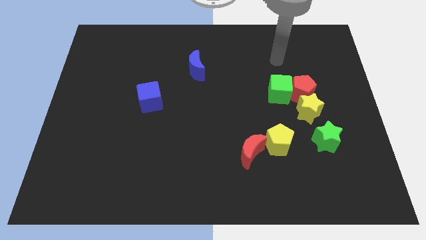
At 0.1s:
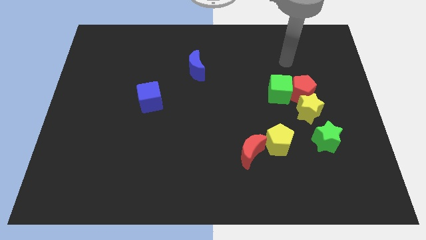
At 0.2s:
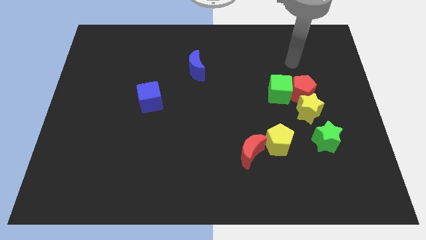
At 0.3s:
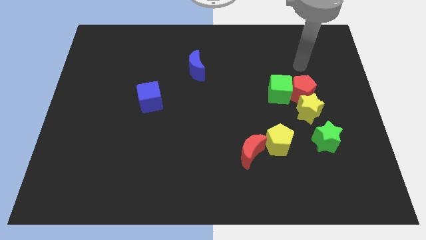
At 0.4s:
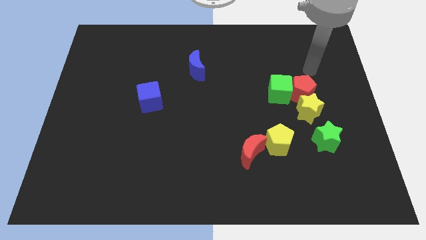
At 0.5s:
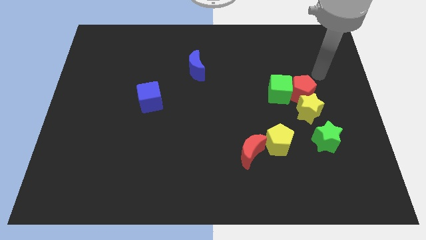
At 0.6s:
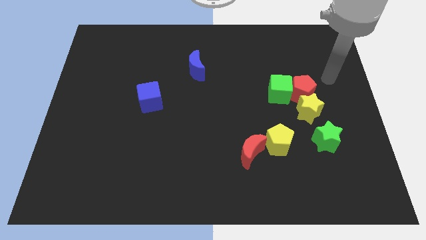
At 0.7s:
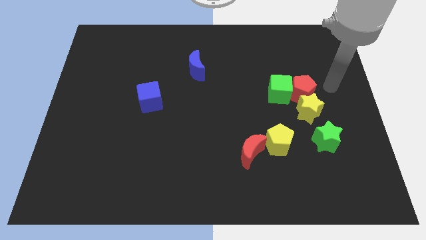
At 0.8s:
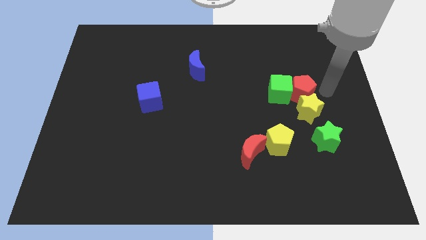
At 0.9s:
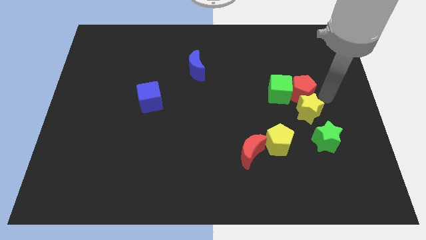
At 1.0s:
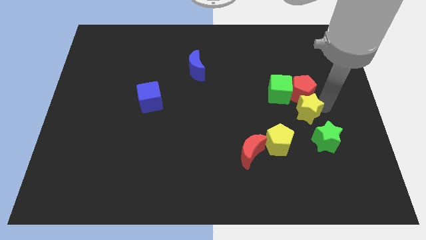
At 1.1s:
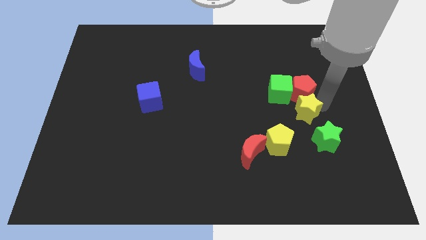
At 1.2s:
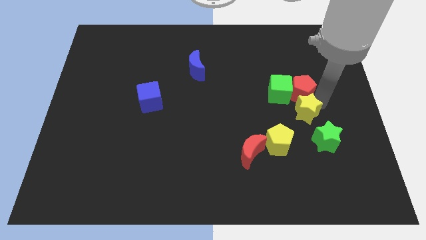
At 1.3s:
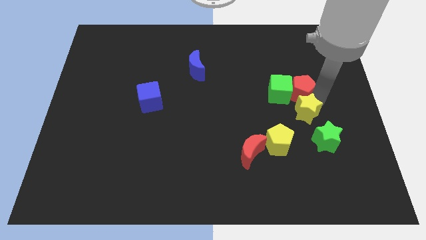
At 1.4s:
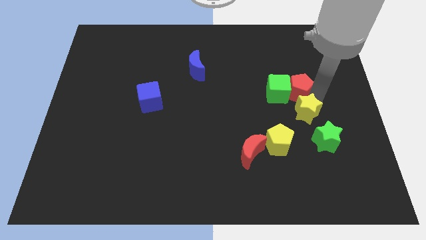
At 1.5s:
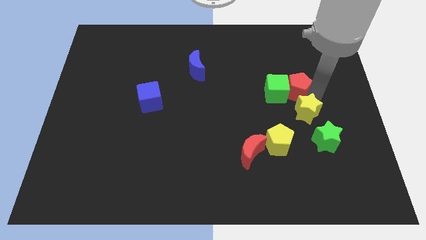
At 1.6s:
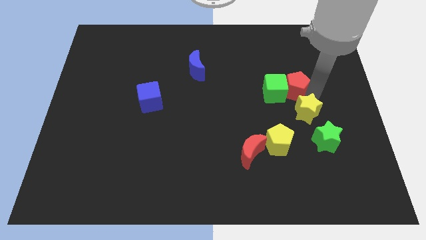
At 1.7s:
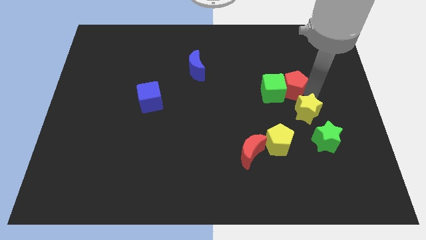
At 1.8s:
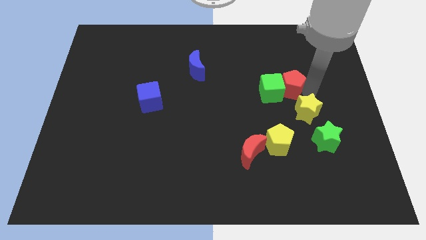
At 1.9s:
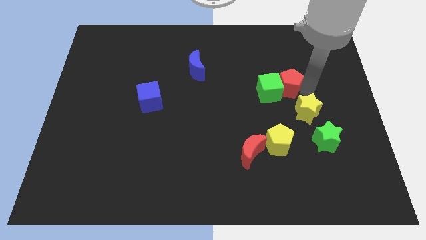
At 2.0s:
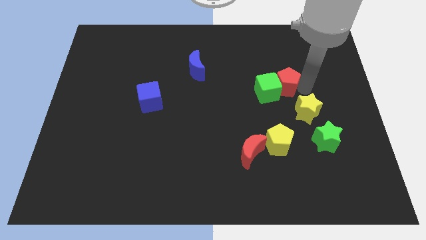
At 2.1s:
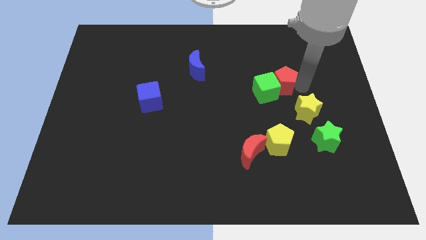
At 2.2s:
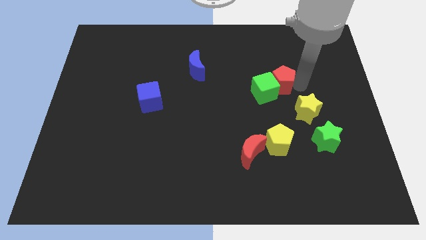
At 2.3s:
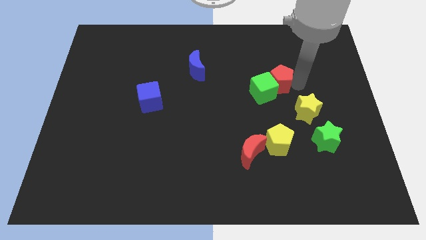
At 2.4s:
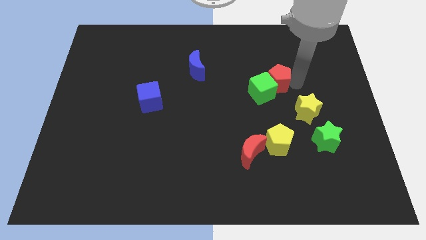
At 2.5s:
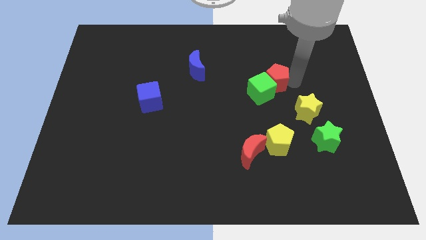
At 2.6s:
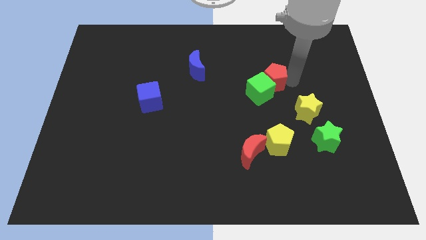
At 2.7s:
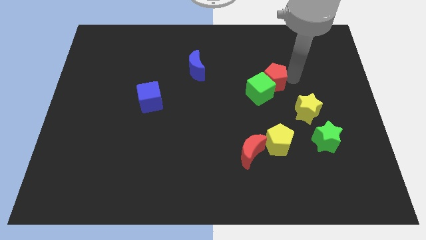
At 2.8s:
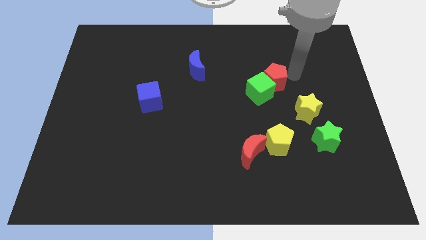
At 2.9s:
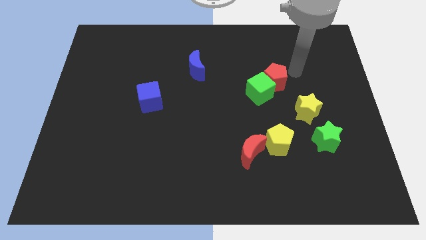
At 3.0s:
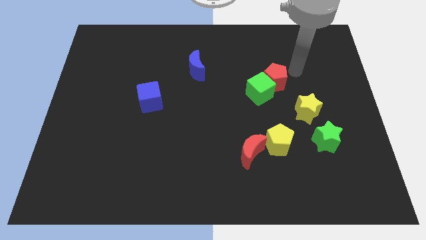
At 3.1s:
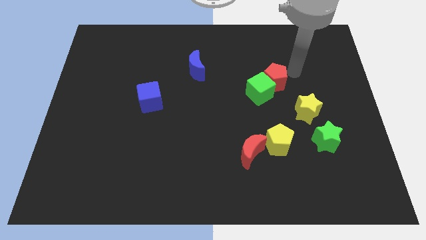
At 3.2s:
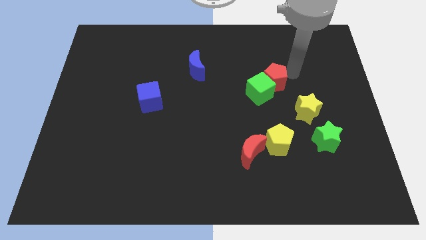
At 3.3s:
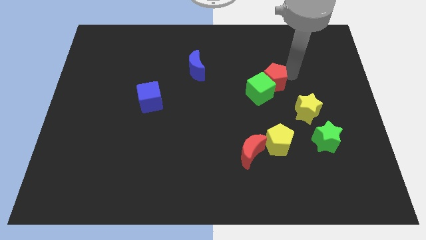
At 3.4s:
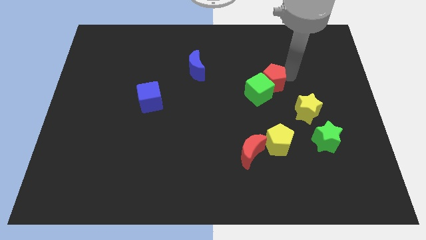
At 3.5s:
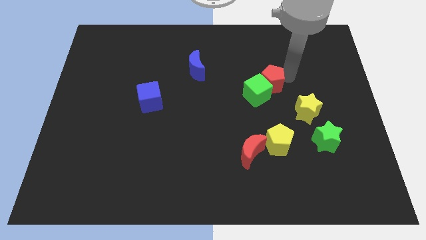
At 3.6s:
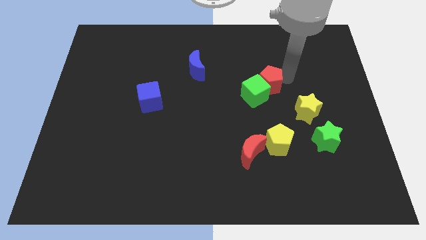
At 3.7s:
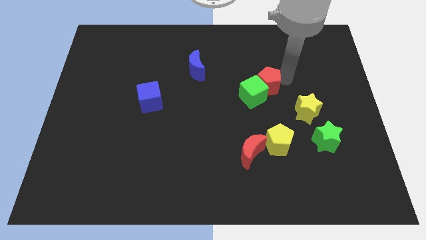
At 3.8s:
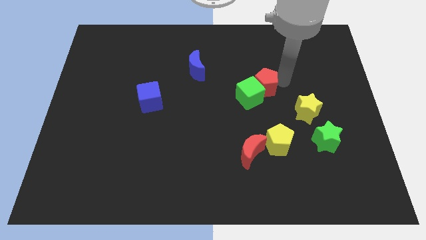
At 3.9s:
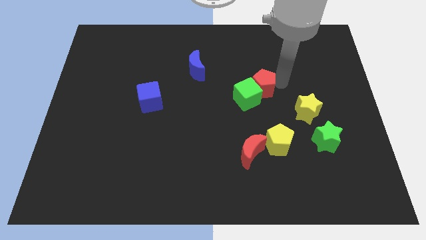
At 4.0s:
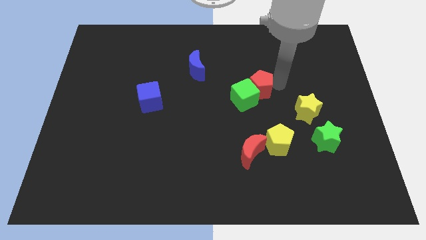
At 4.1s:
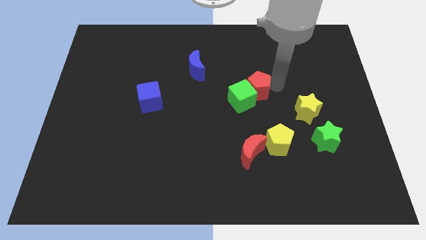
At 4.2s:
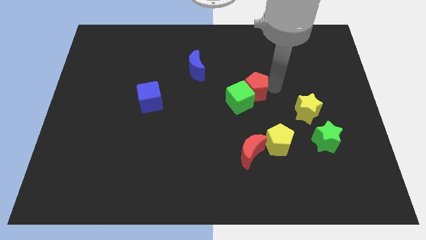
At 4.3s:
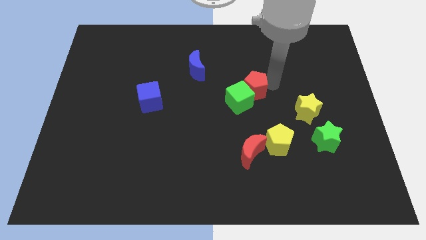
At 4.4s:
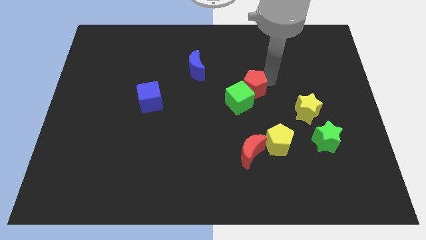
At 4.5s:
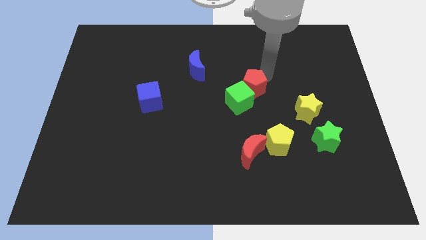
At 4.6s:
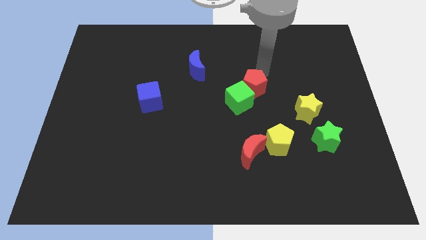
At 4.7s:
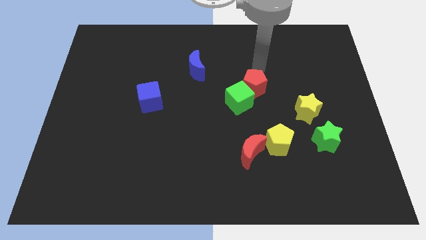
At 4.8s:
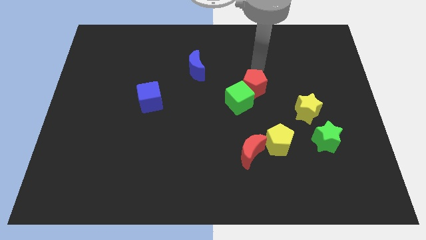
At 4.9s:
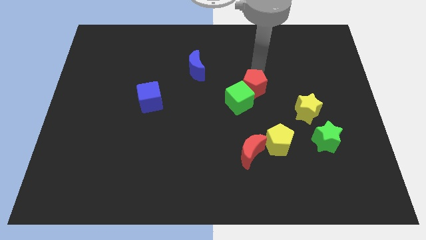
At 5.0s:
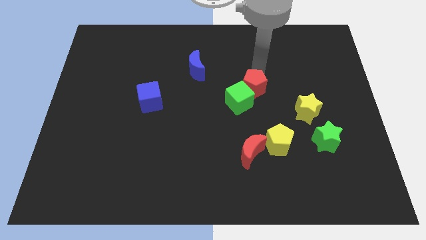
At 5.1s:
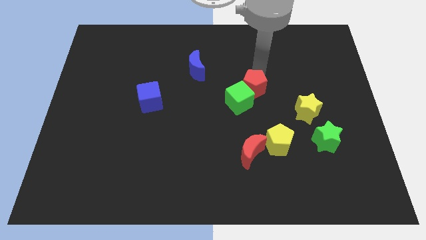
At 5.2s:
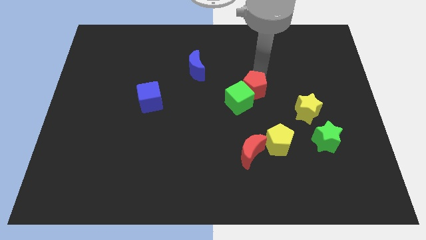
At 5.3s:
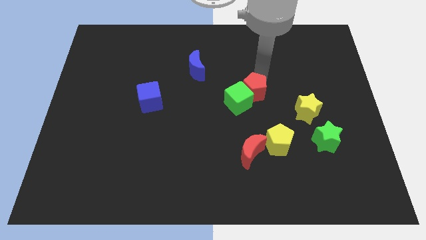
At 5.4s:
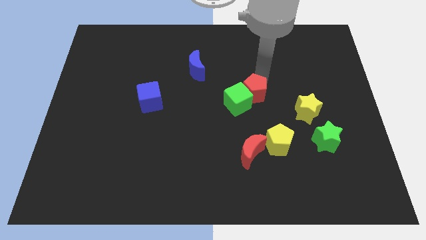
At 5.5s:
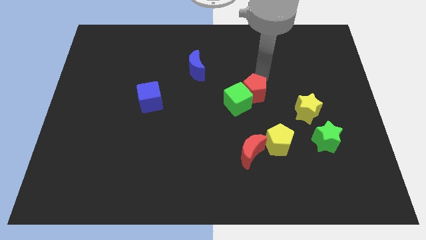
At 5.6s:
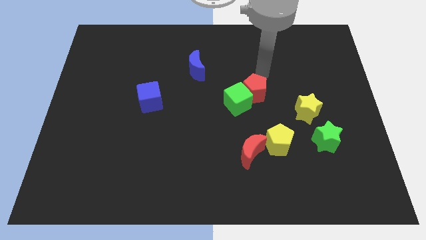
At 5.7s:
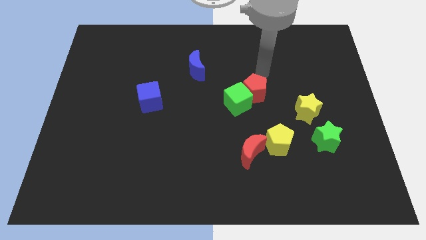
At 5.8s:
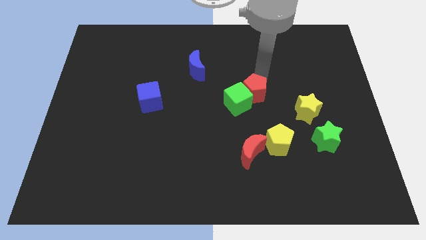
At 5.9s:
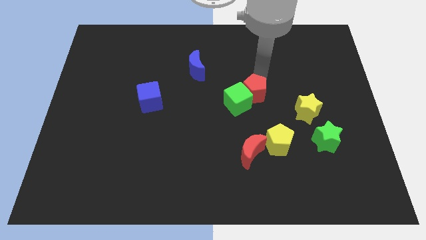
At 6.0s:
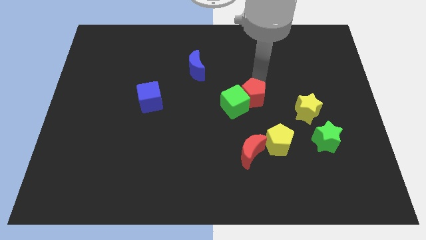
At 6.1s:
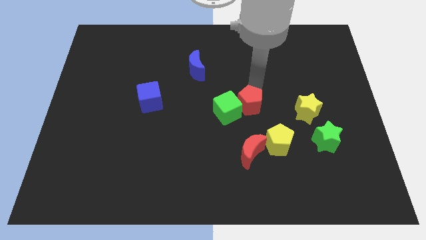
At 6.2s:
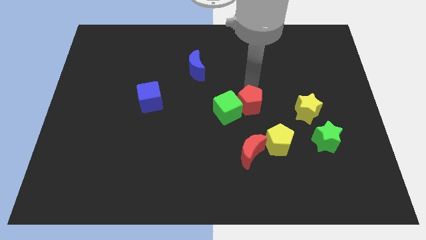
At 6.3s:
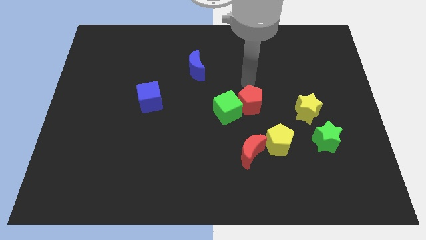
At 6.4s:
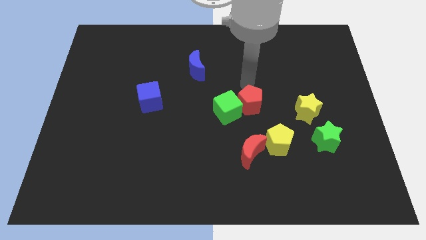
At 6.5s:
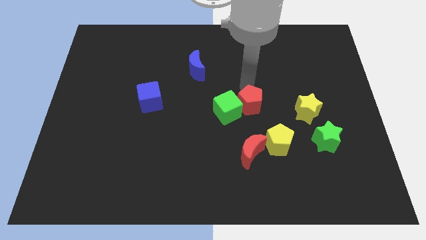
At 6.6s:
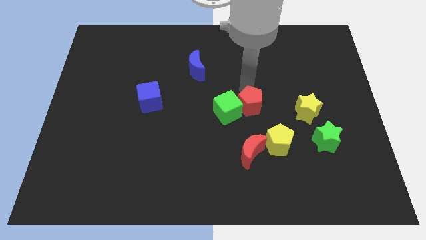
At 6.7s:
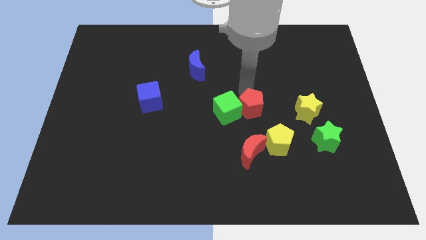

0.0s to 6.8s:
push the red pentagon to the top left of the yellow pentagon

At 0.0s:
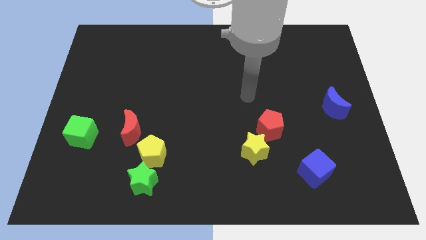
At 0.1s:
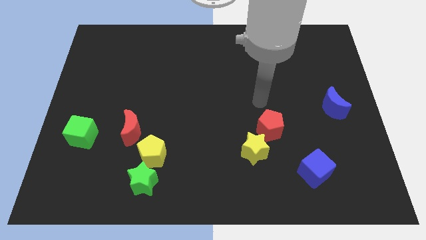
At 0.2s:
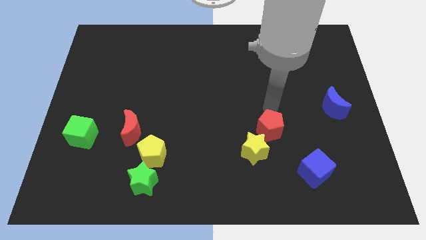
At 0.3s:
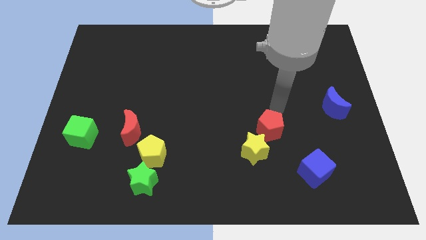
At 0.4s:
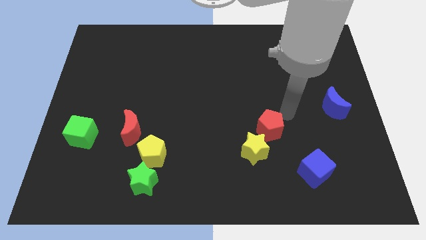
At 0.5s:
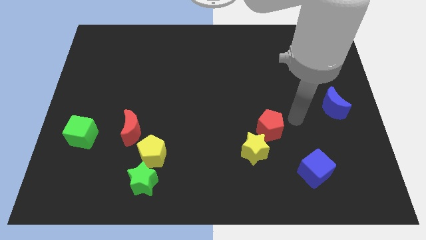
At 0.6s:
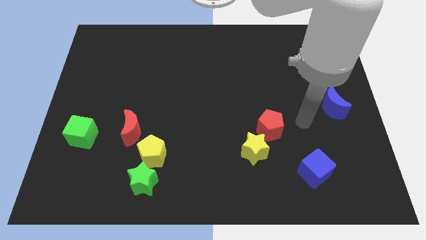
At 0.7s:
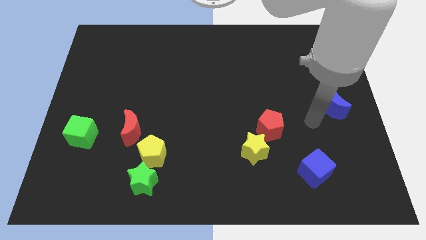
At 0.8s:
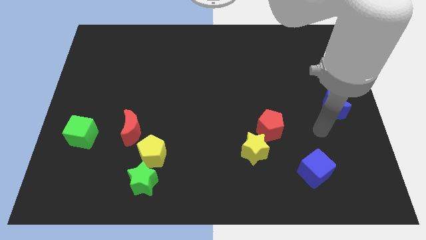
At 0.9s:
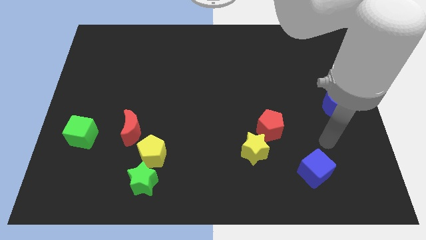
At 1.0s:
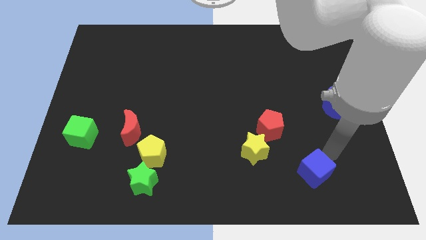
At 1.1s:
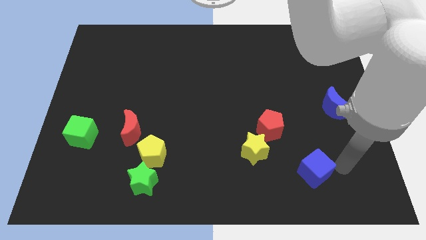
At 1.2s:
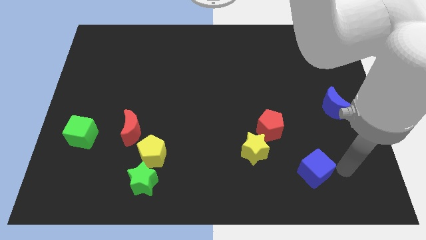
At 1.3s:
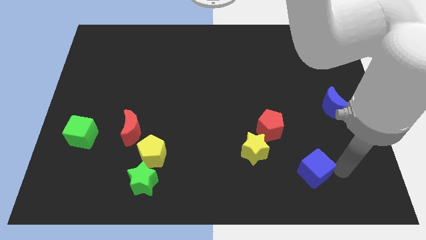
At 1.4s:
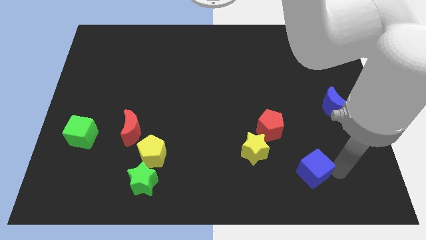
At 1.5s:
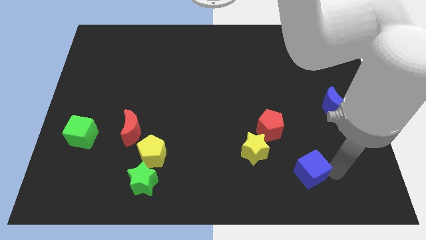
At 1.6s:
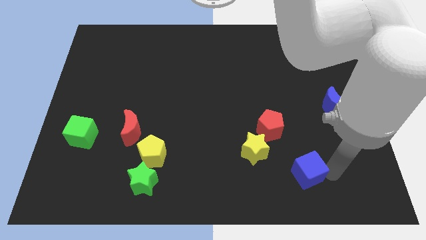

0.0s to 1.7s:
move the blue cube to the bottom right side of the yellow star
